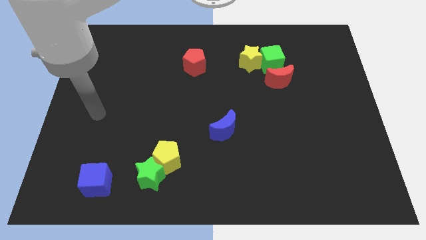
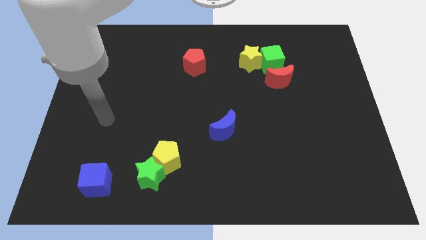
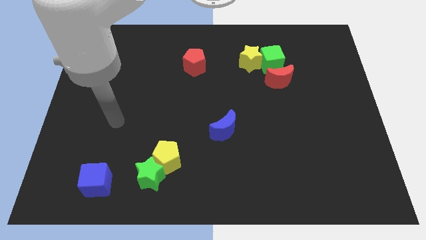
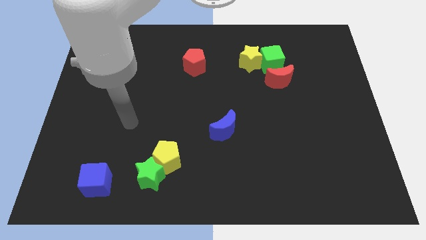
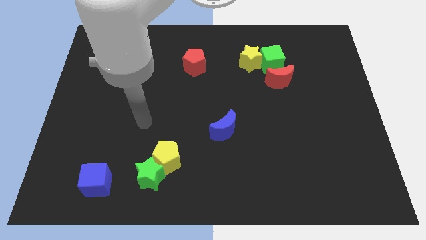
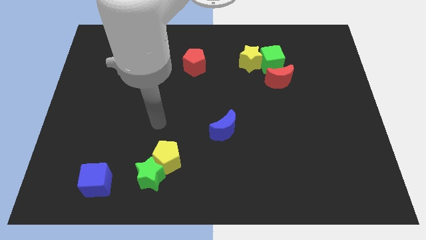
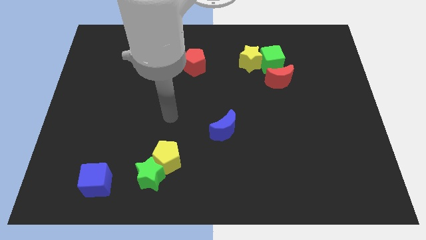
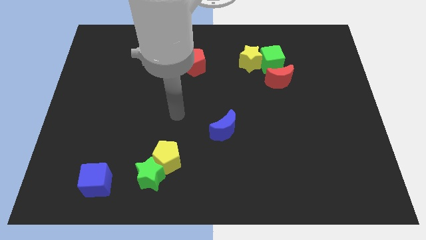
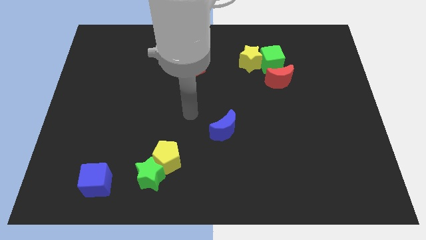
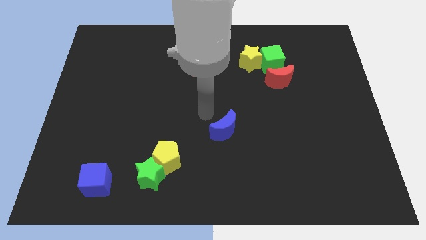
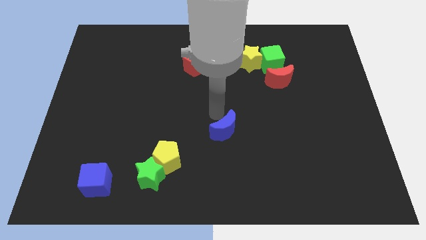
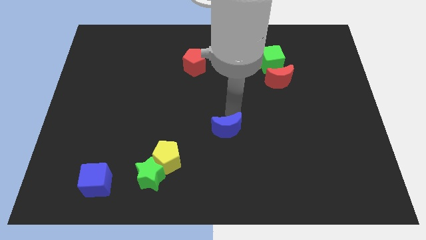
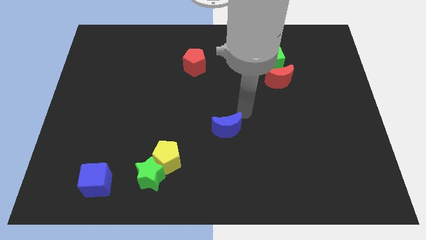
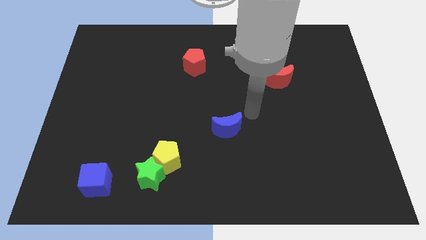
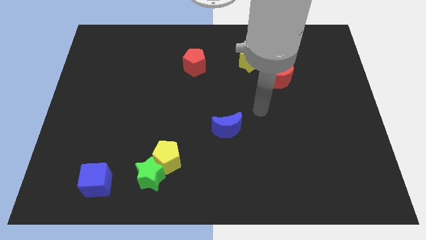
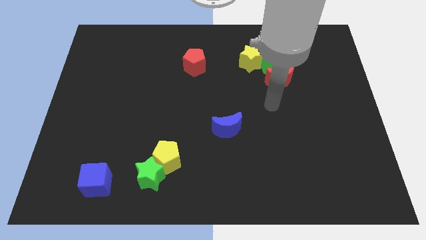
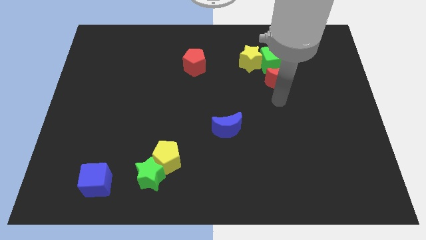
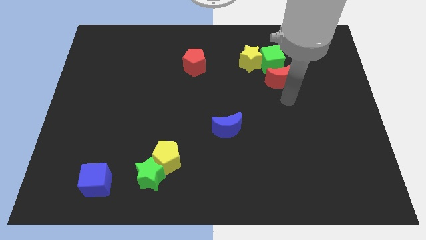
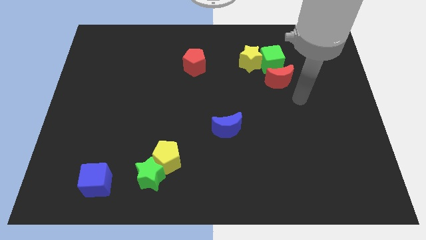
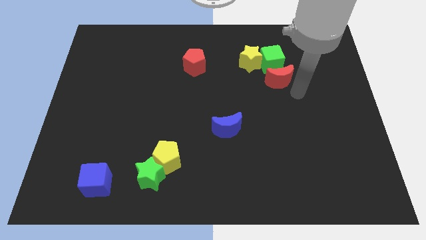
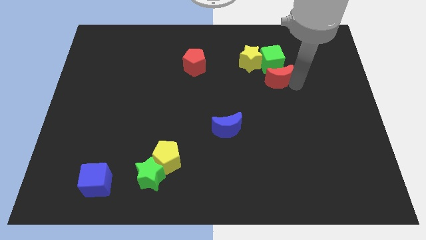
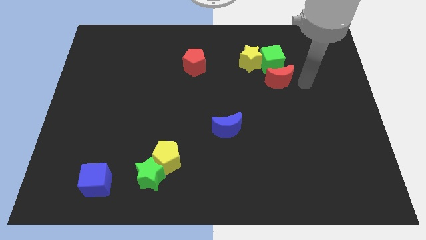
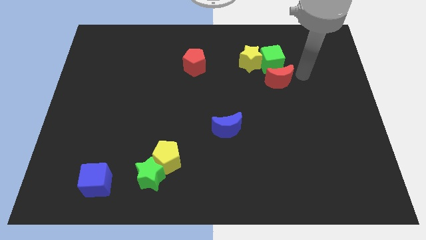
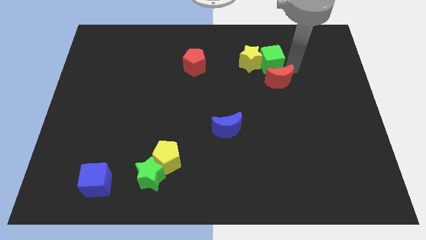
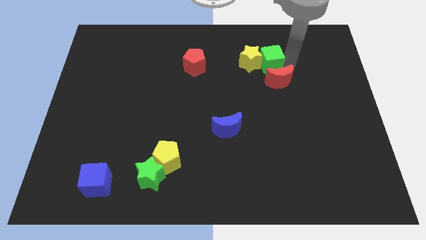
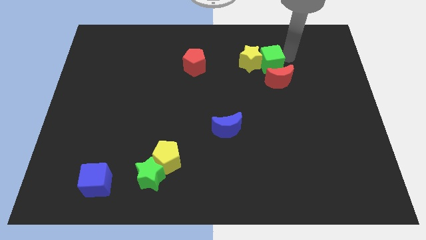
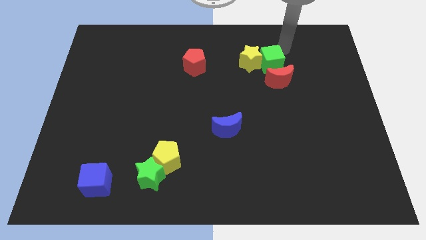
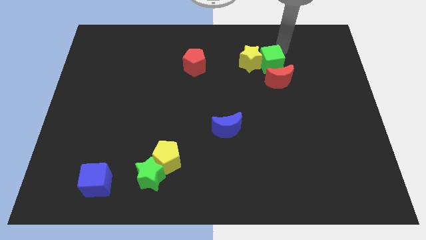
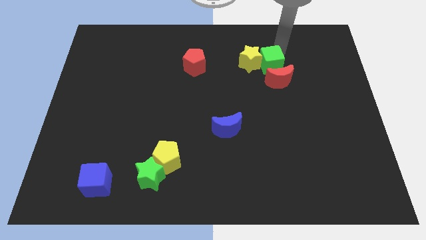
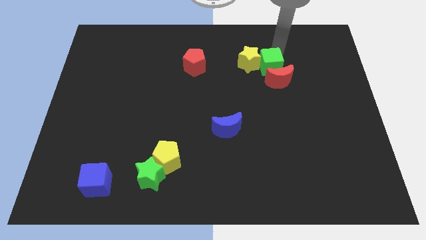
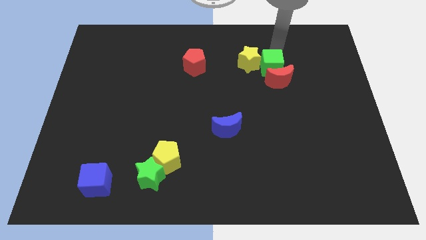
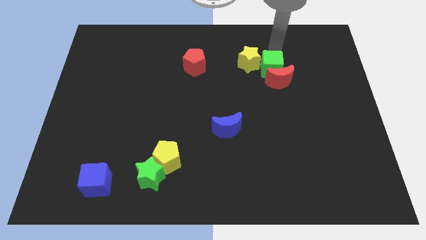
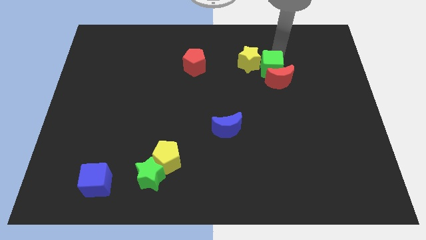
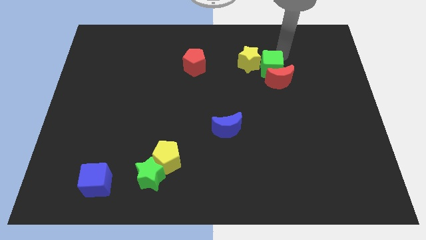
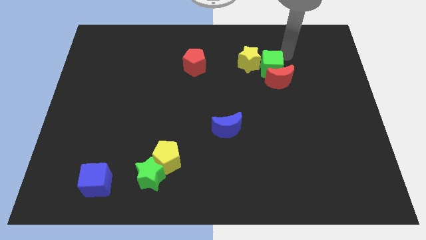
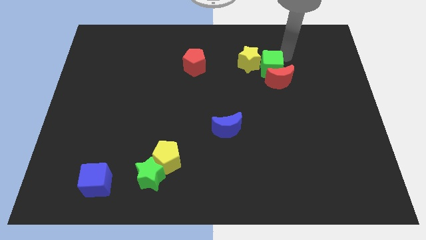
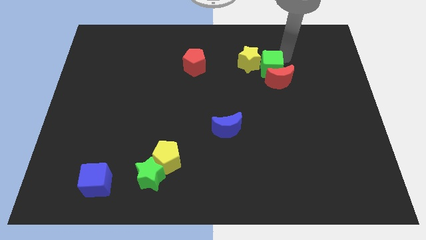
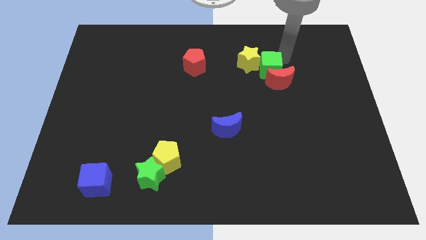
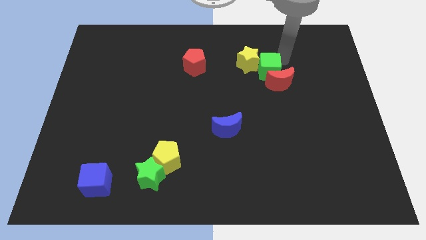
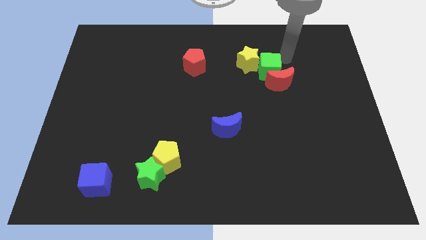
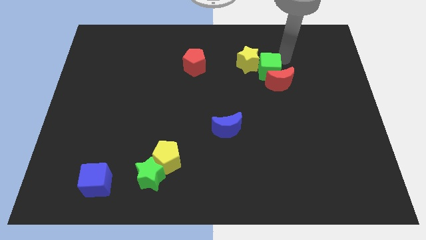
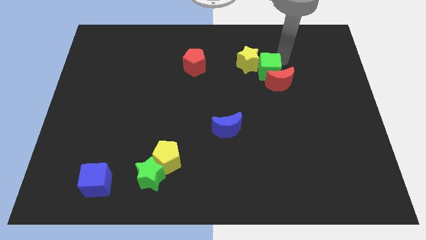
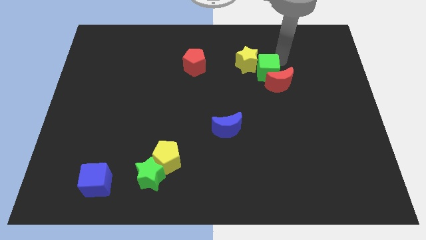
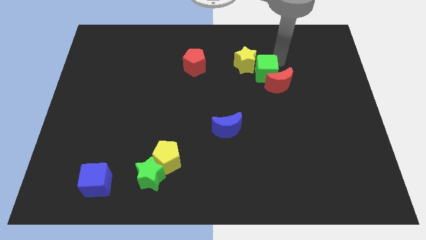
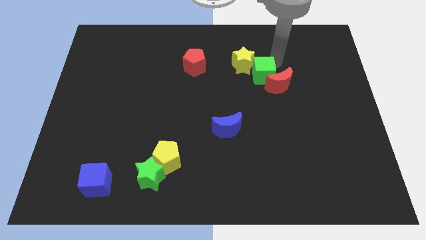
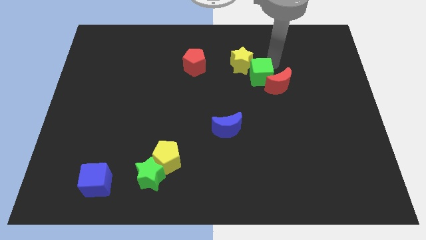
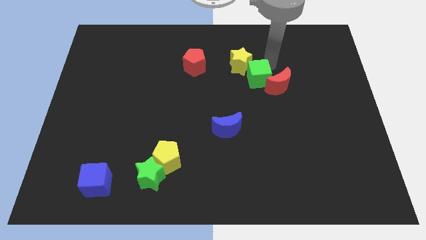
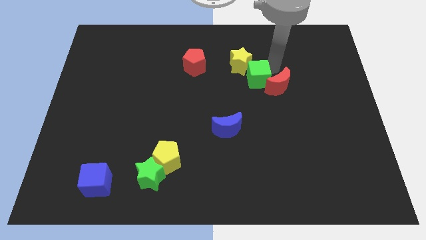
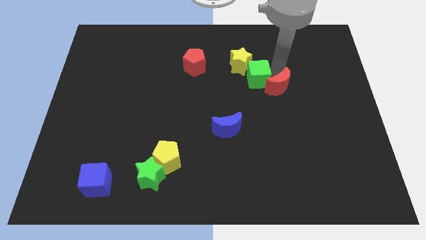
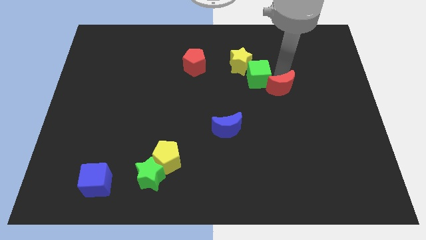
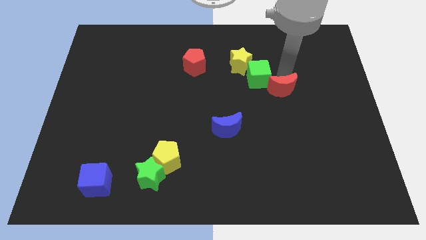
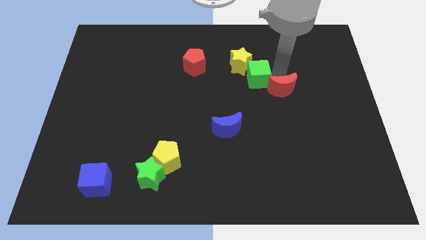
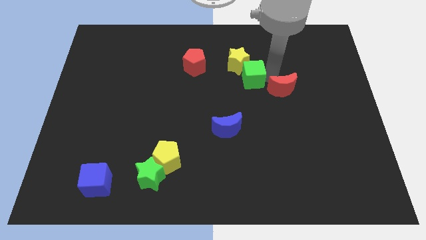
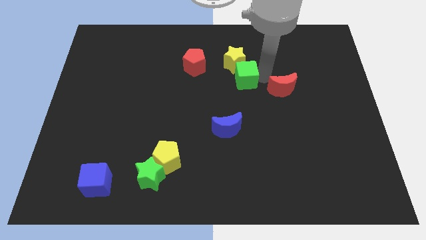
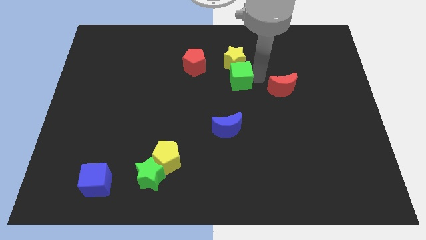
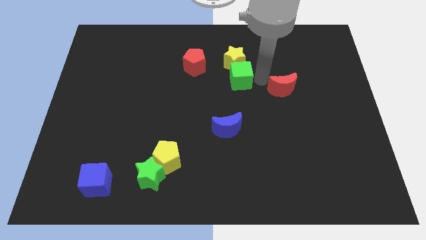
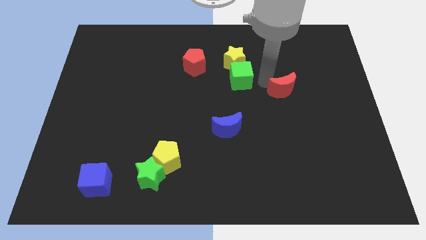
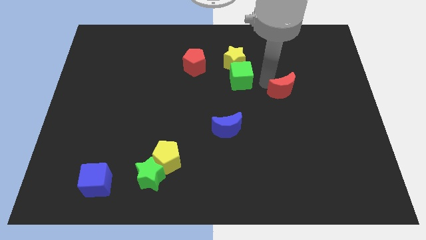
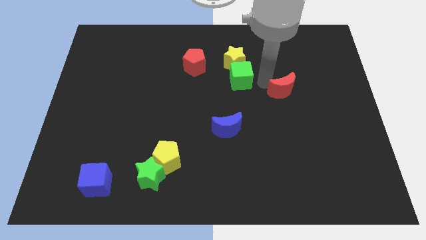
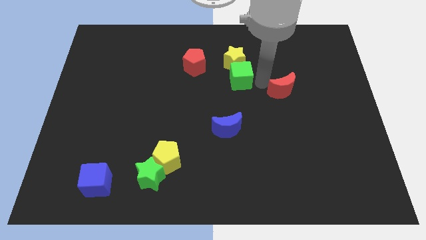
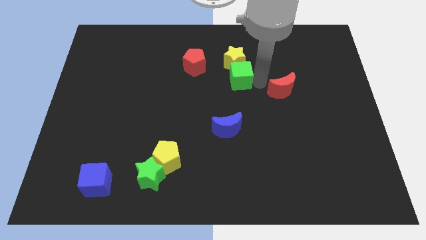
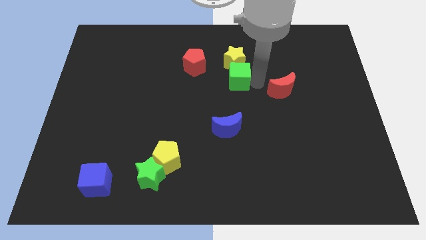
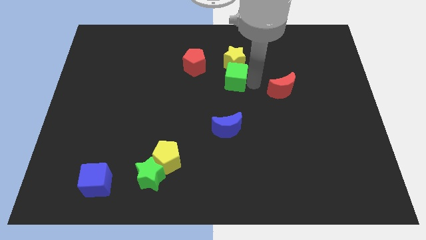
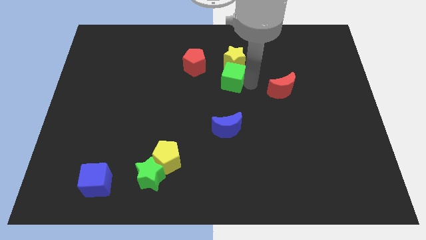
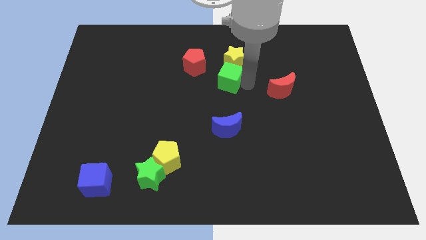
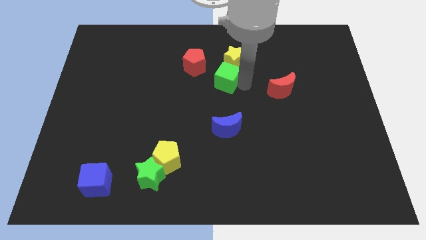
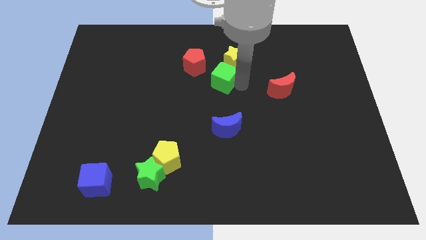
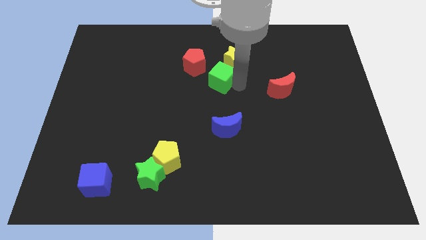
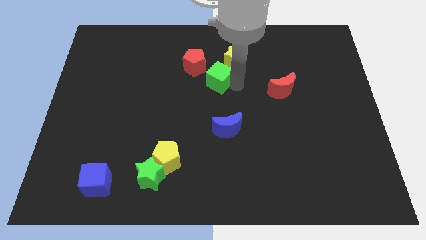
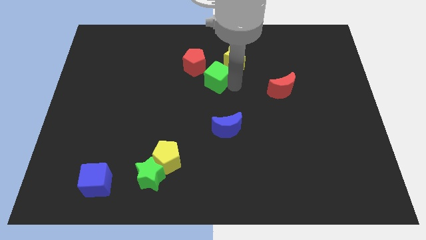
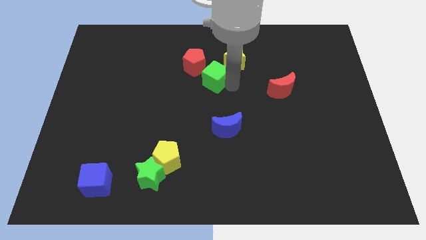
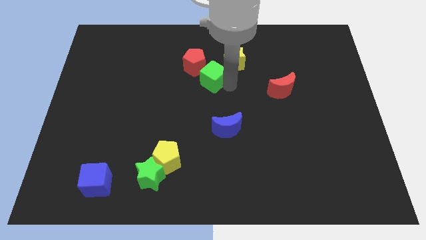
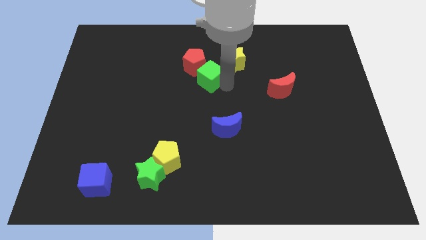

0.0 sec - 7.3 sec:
push the green cube towards the red pentagon
